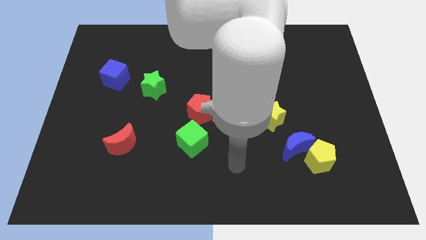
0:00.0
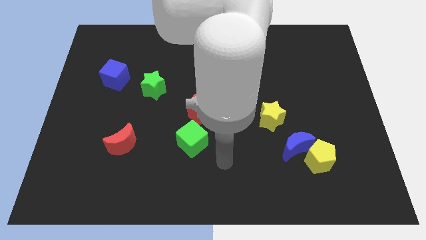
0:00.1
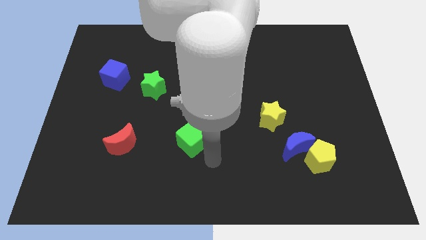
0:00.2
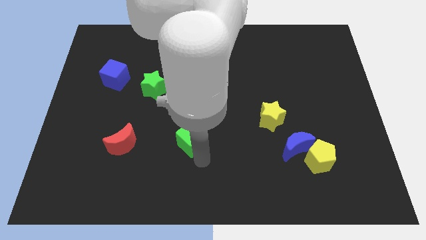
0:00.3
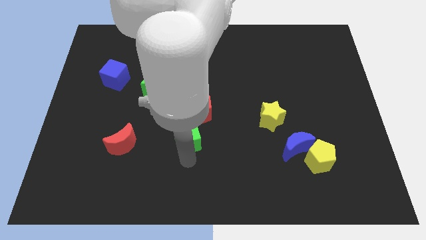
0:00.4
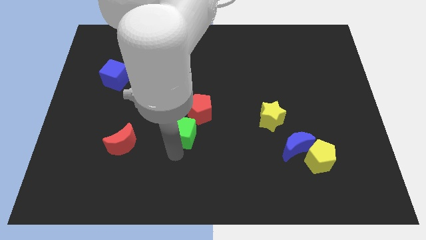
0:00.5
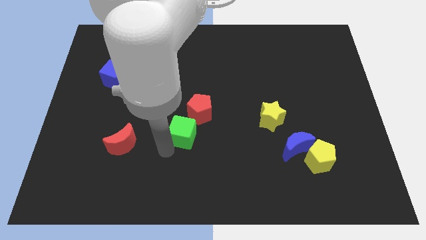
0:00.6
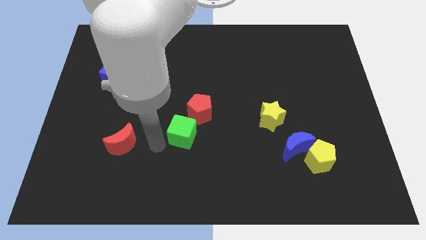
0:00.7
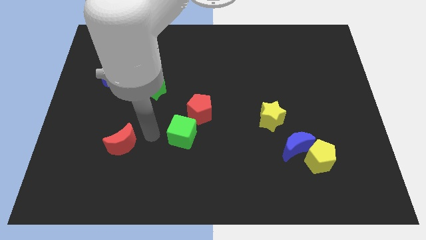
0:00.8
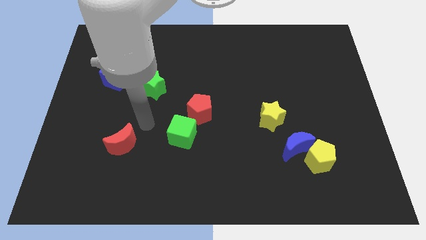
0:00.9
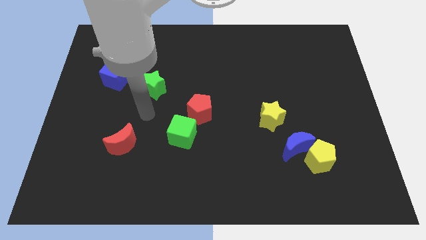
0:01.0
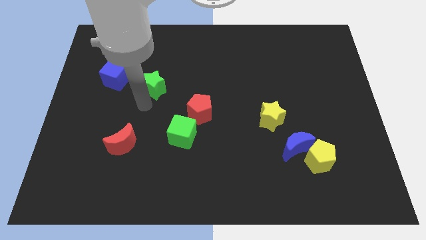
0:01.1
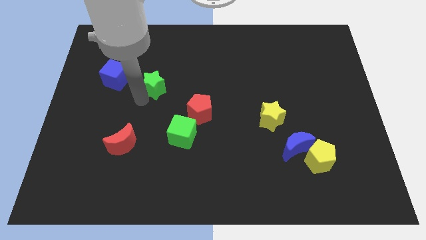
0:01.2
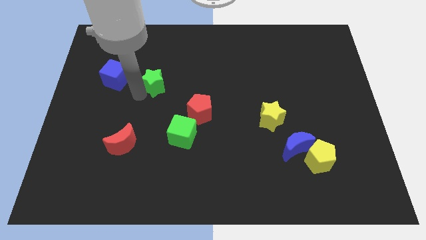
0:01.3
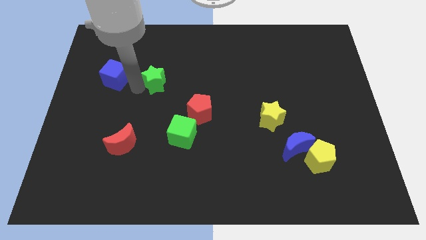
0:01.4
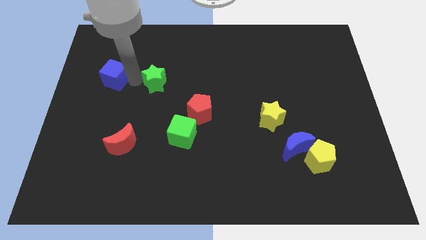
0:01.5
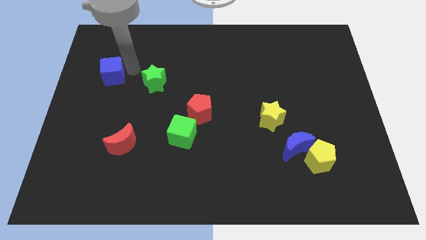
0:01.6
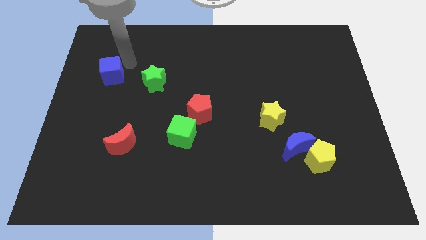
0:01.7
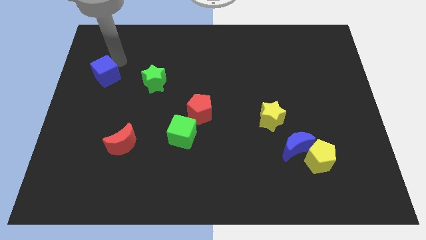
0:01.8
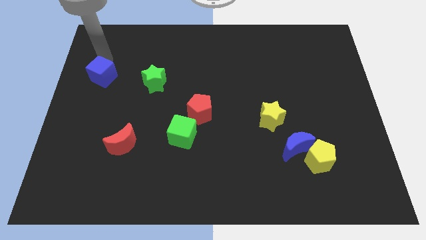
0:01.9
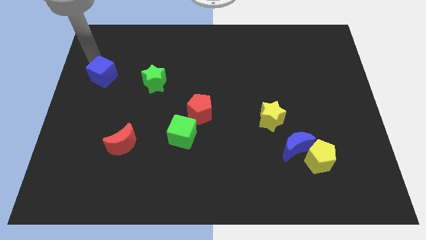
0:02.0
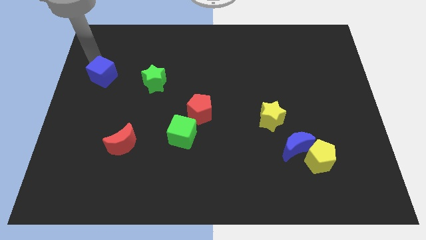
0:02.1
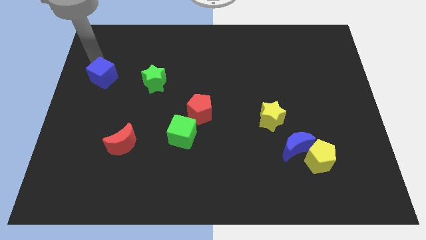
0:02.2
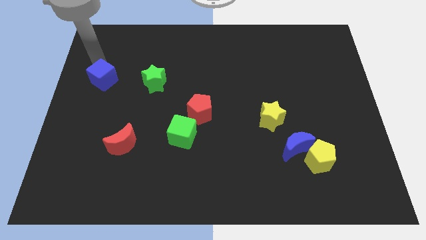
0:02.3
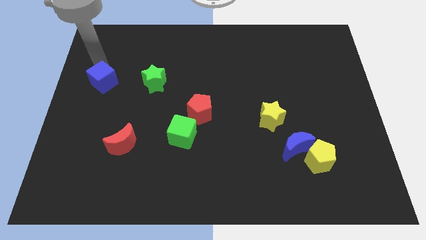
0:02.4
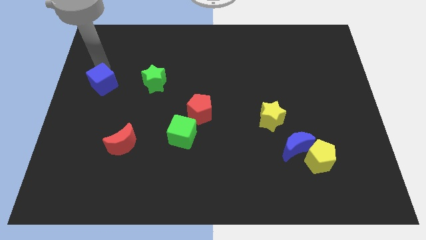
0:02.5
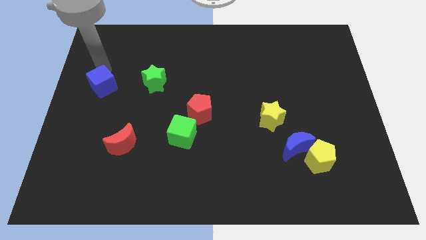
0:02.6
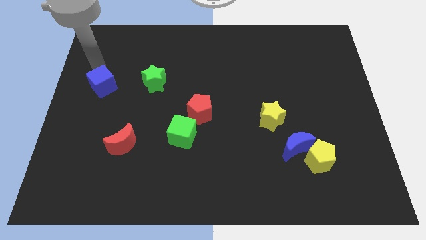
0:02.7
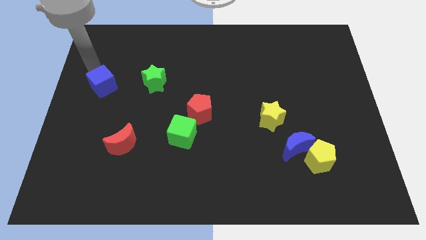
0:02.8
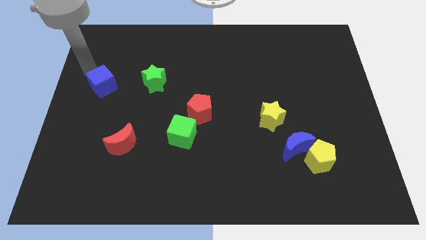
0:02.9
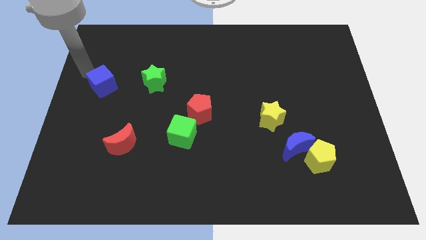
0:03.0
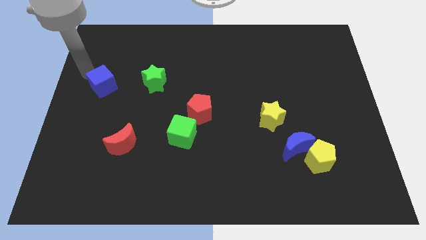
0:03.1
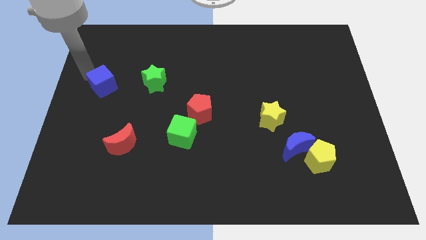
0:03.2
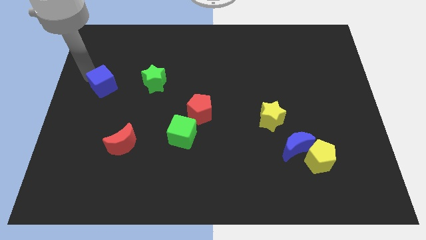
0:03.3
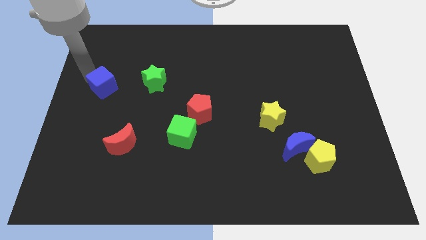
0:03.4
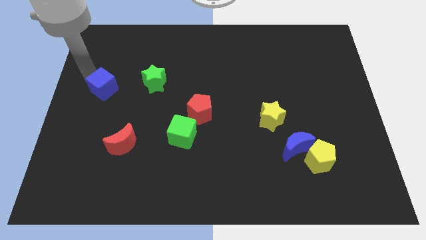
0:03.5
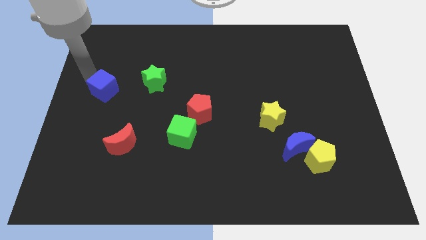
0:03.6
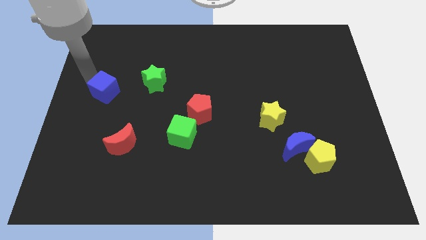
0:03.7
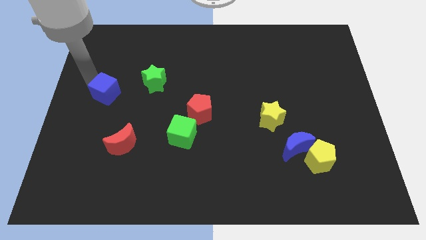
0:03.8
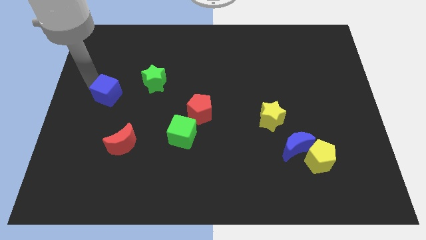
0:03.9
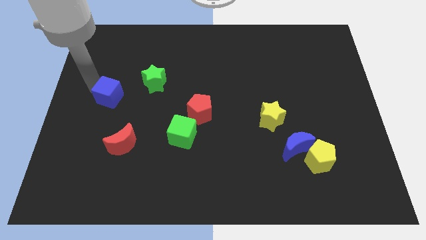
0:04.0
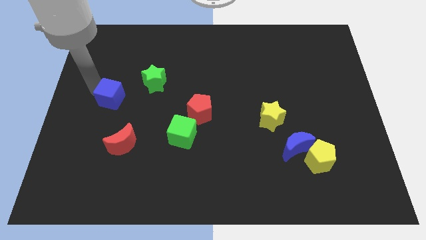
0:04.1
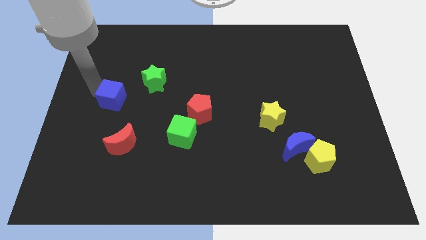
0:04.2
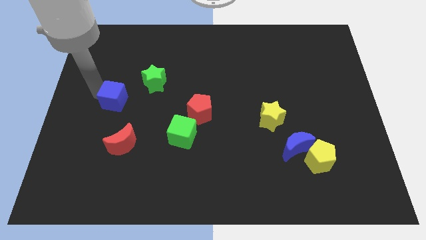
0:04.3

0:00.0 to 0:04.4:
push the blue cube downwards a little

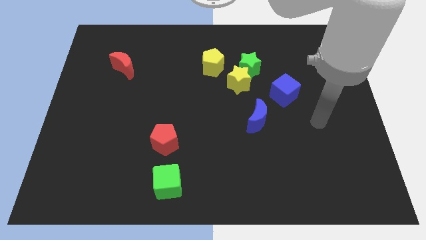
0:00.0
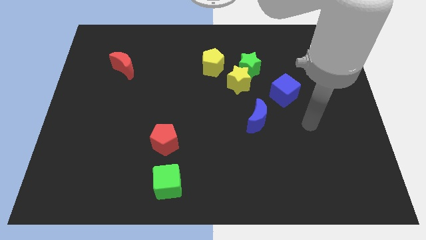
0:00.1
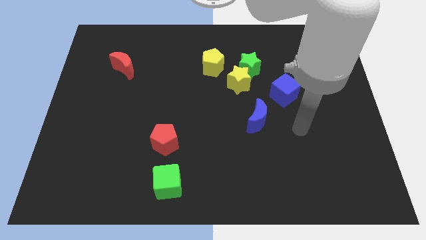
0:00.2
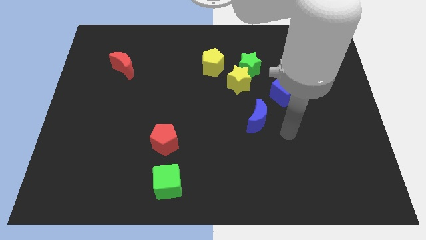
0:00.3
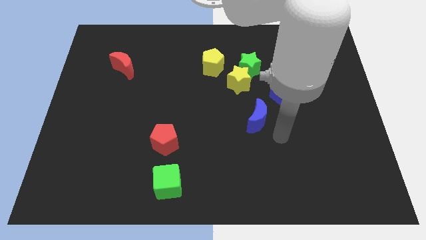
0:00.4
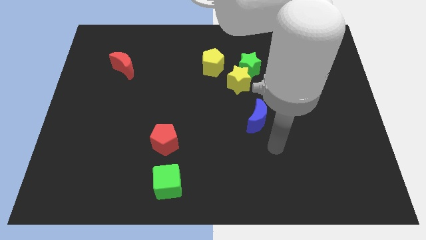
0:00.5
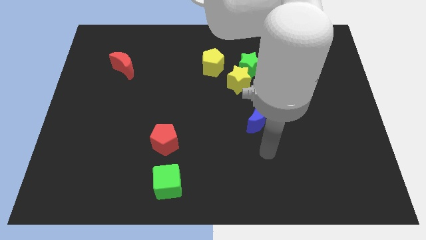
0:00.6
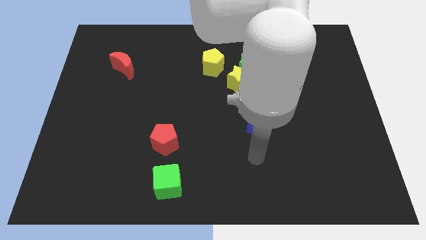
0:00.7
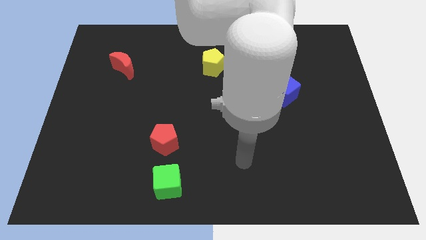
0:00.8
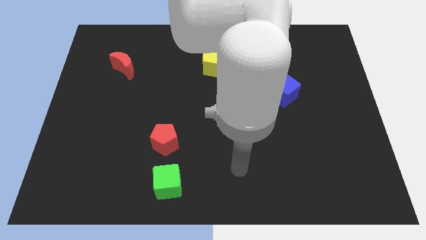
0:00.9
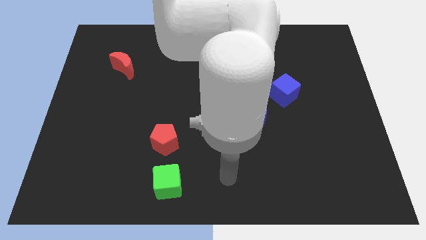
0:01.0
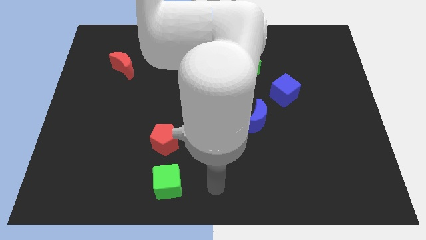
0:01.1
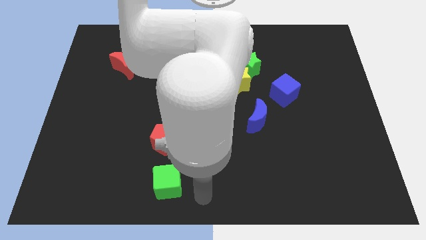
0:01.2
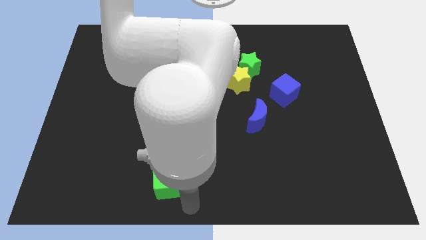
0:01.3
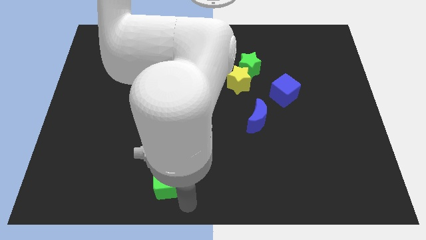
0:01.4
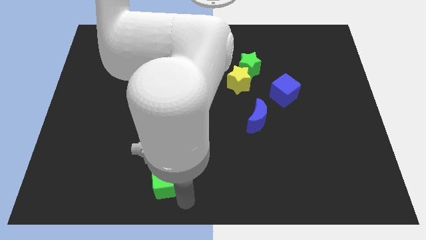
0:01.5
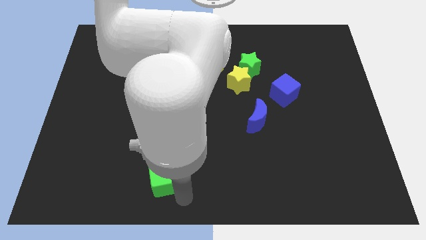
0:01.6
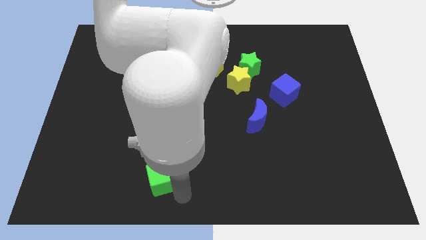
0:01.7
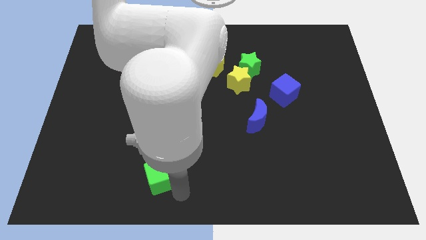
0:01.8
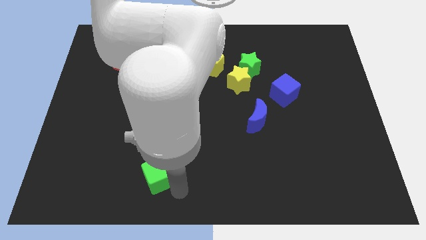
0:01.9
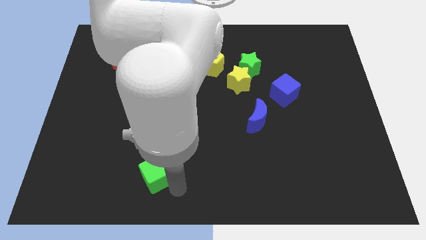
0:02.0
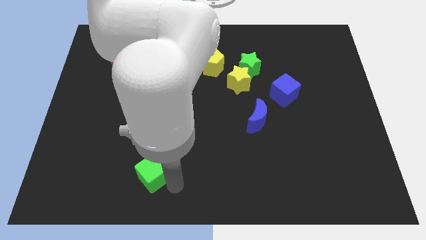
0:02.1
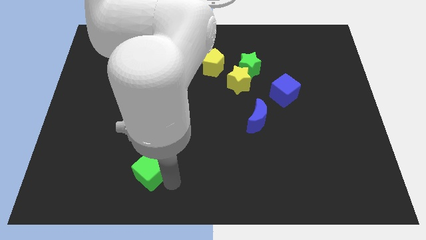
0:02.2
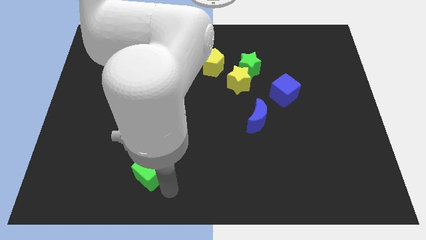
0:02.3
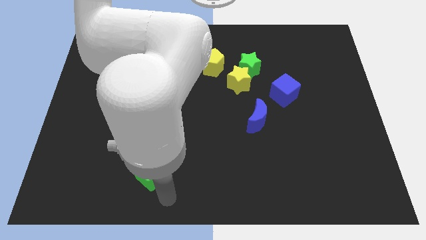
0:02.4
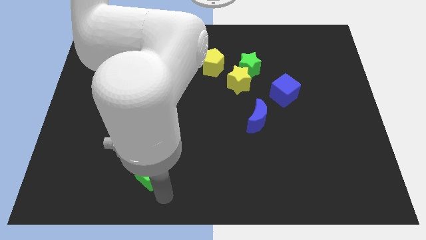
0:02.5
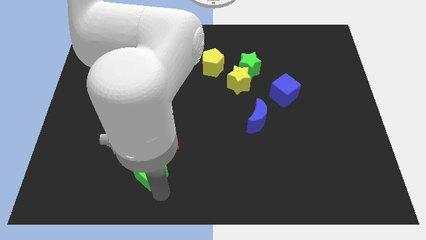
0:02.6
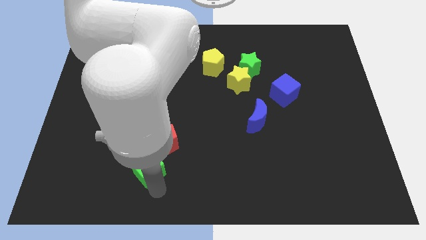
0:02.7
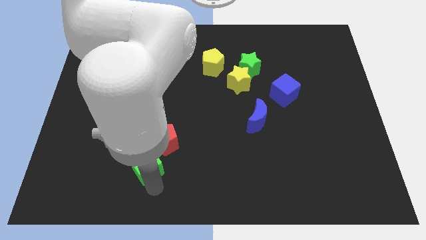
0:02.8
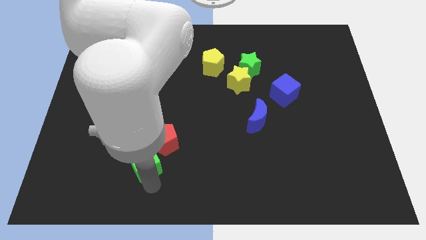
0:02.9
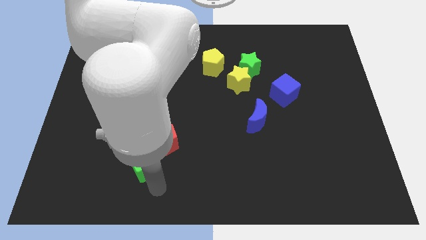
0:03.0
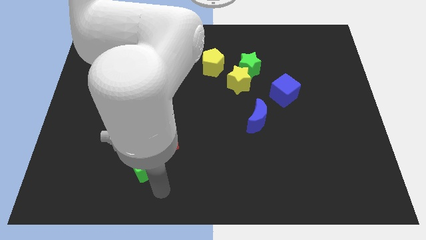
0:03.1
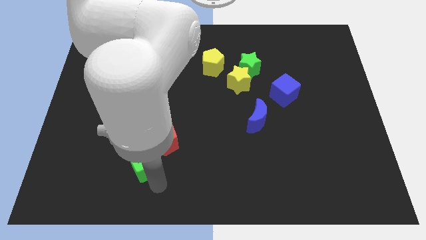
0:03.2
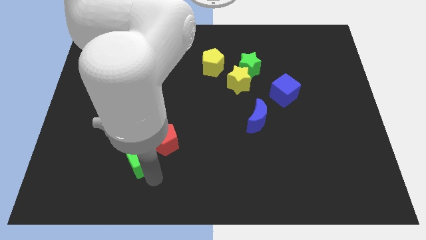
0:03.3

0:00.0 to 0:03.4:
slide the green cube upwards and to the left diagonally somewhat

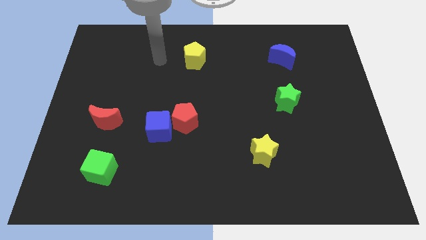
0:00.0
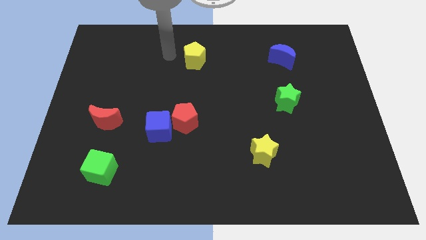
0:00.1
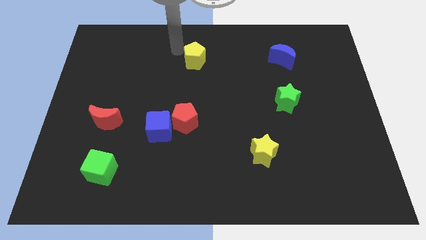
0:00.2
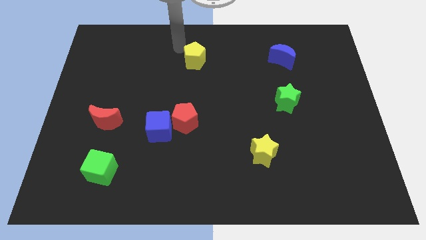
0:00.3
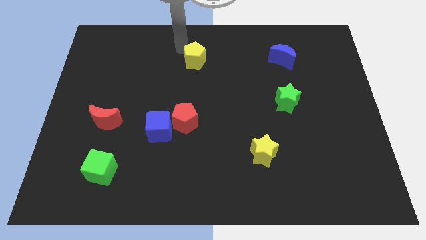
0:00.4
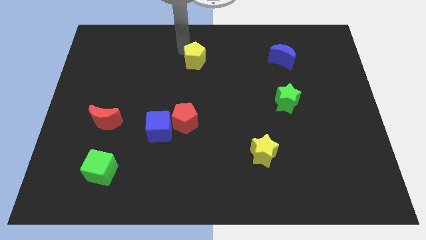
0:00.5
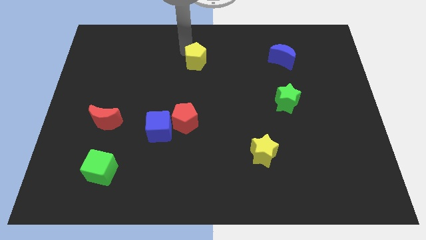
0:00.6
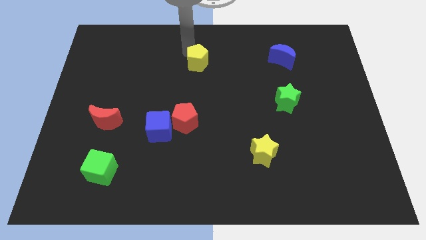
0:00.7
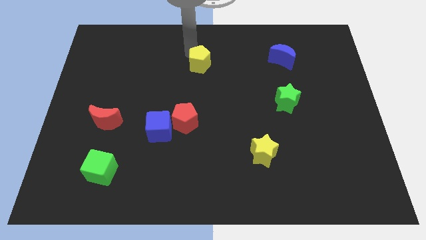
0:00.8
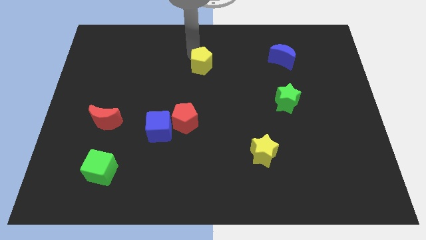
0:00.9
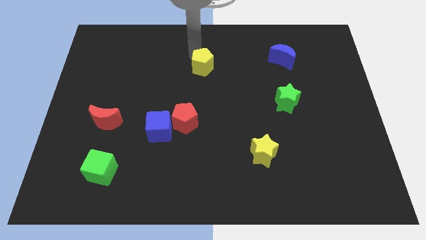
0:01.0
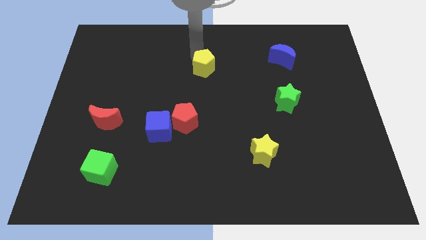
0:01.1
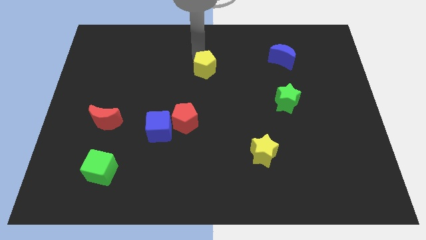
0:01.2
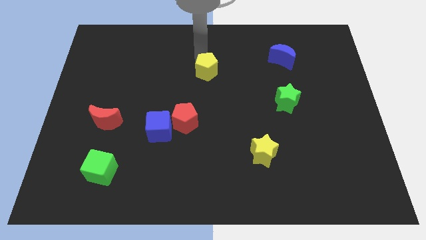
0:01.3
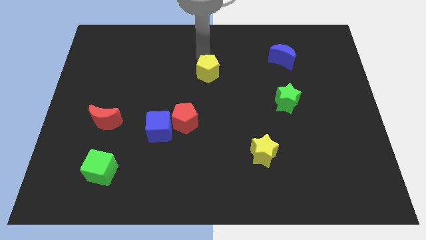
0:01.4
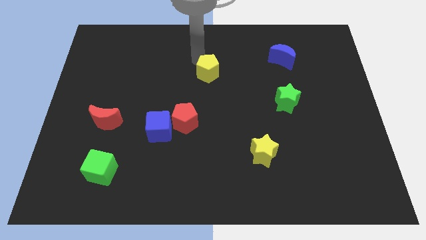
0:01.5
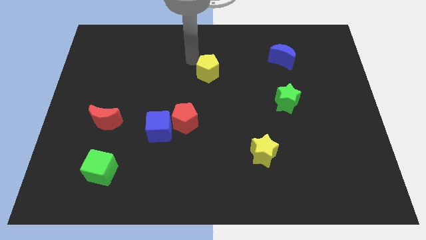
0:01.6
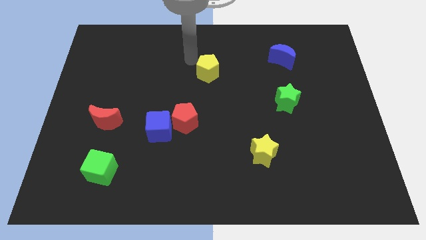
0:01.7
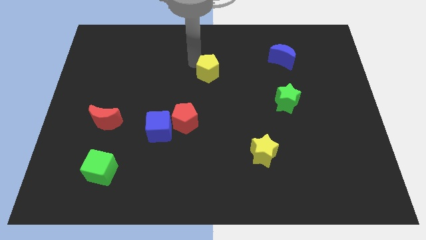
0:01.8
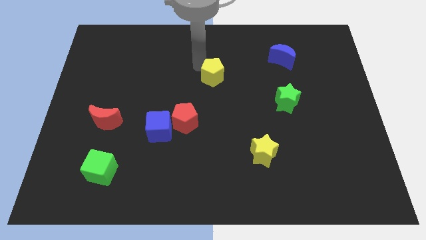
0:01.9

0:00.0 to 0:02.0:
push the yellow pentagon down and then to the right a bit
